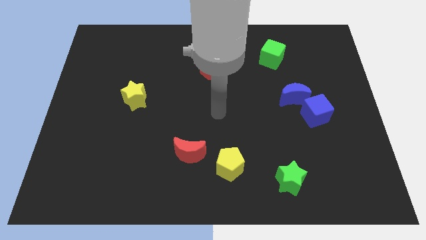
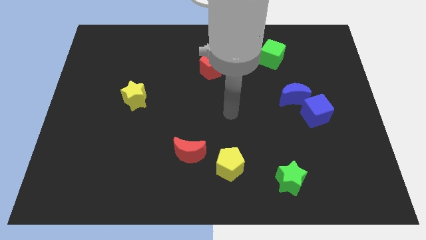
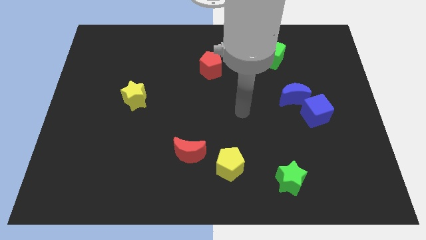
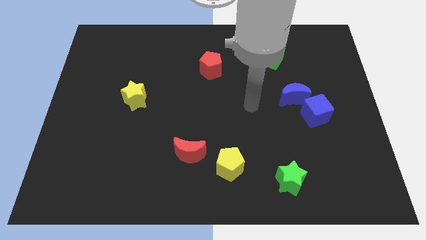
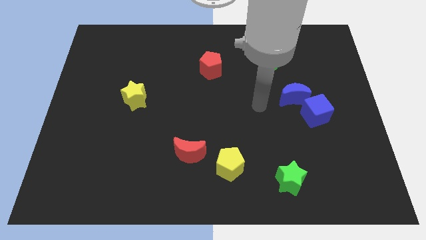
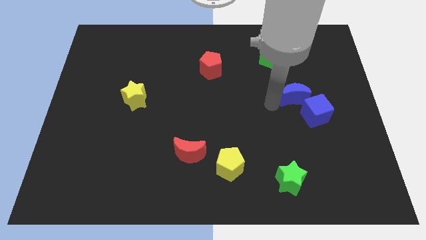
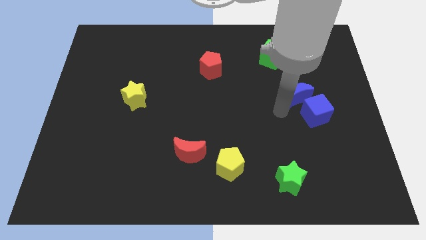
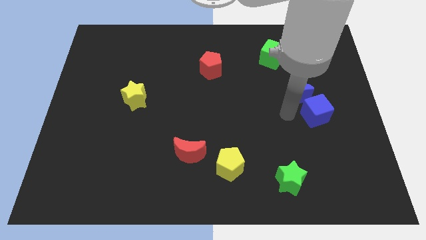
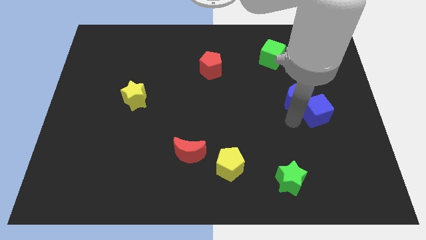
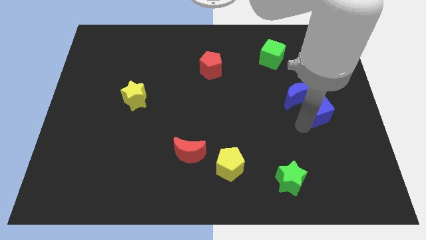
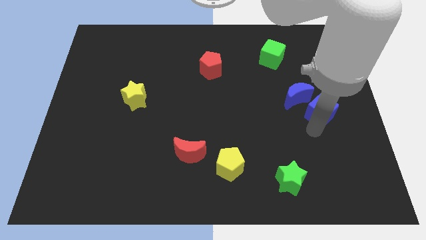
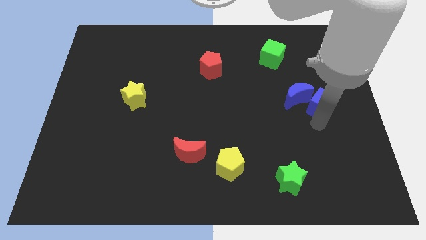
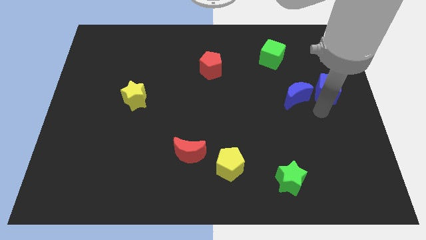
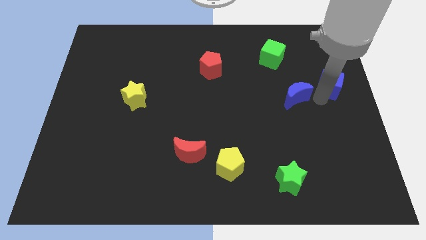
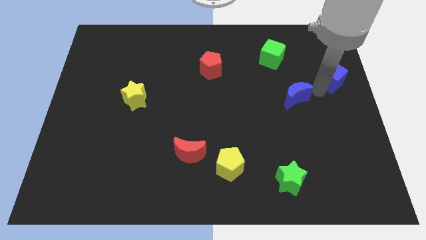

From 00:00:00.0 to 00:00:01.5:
move the blue moon away from the blue cube

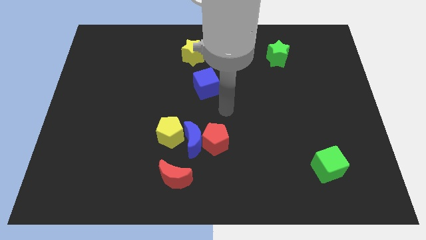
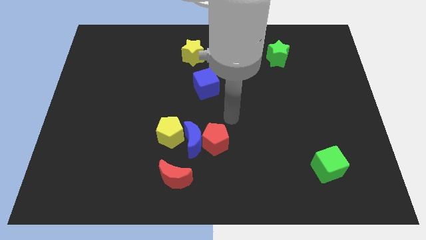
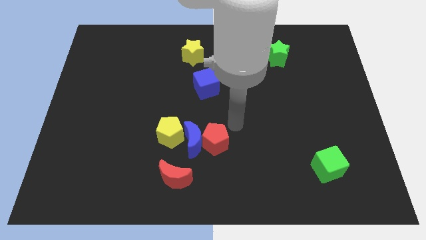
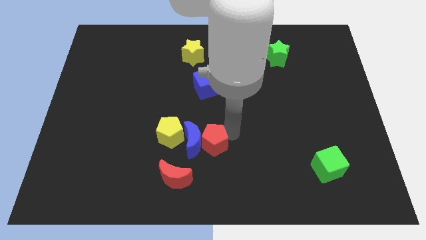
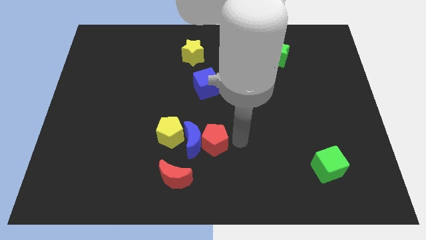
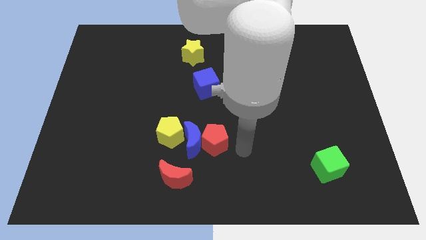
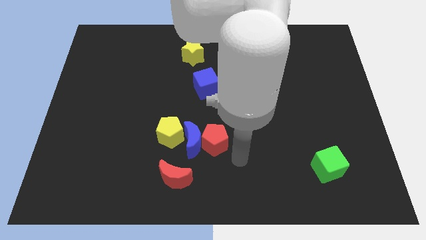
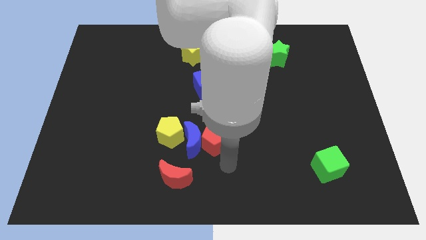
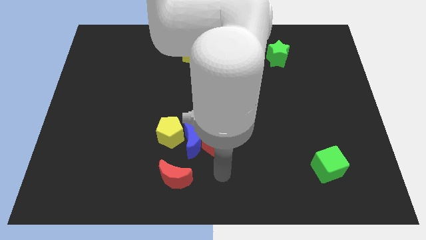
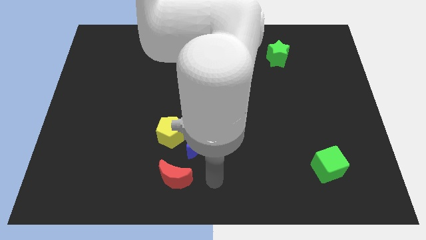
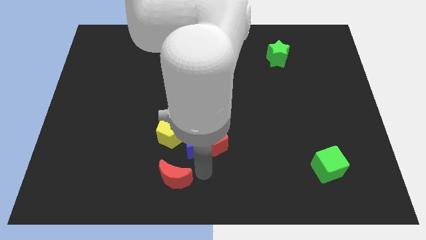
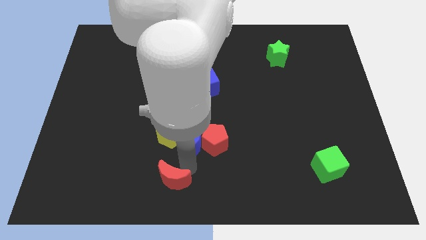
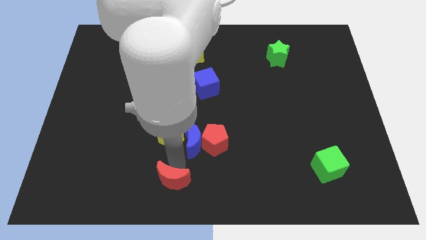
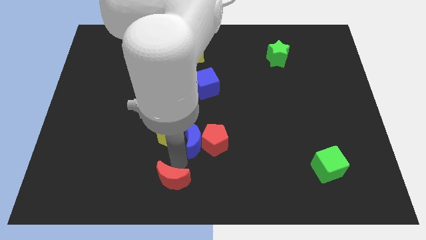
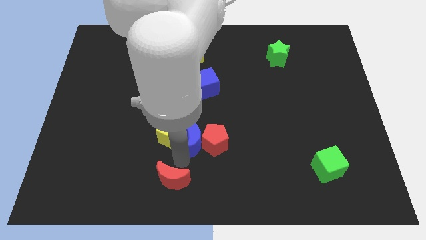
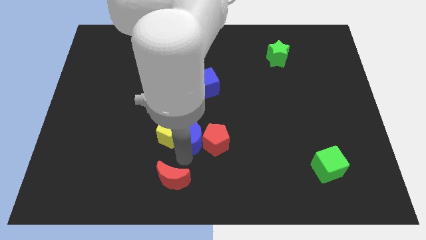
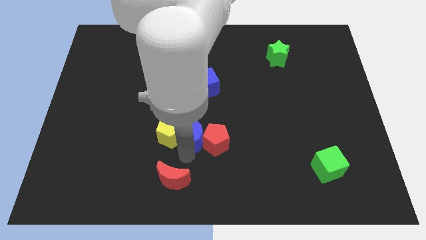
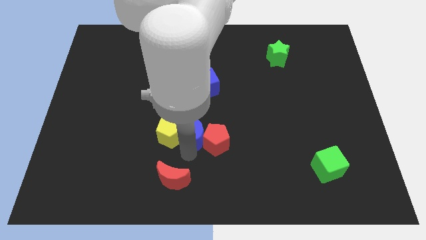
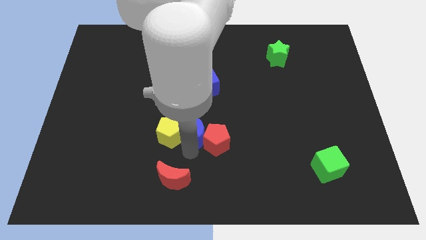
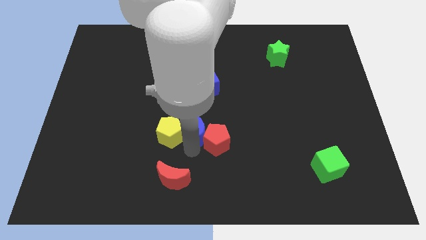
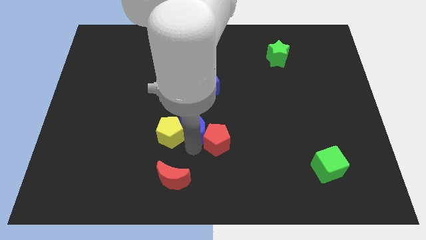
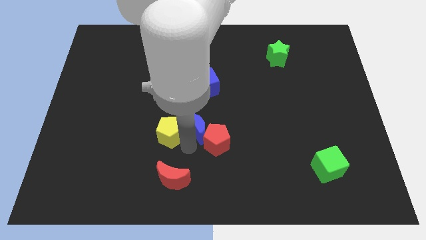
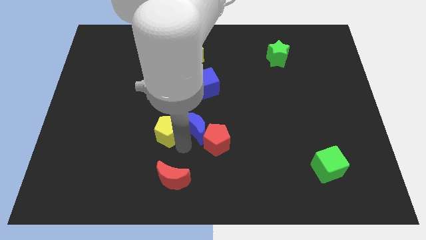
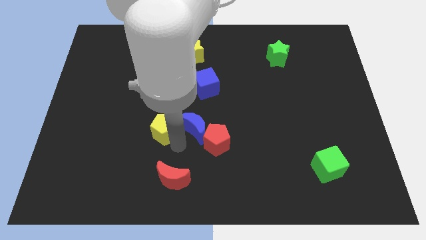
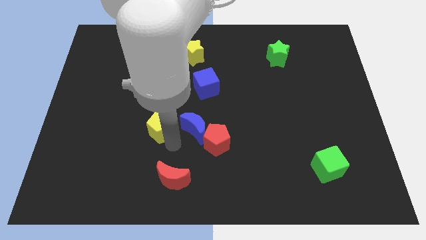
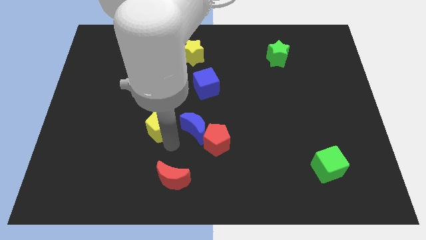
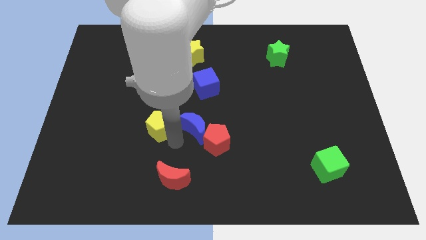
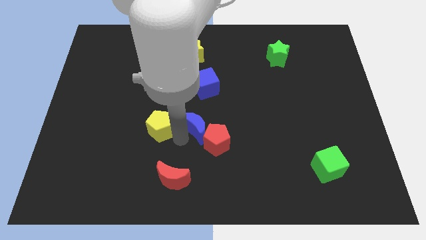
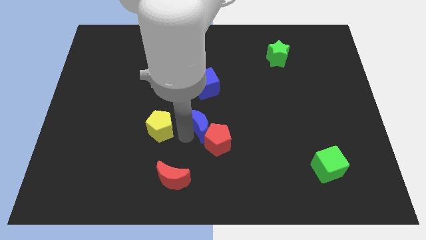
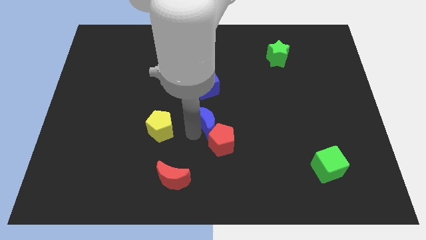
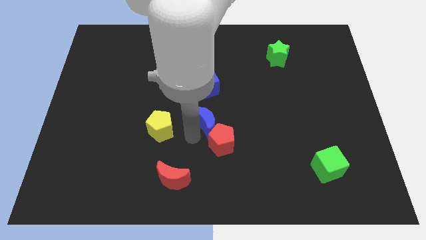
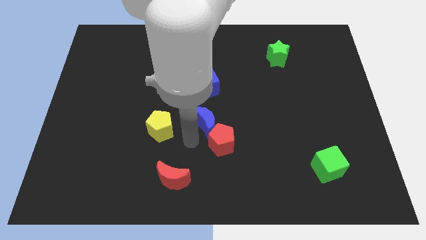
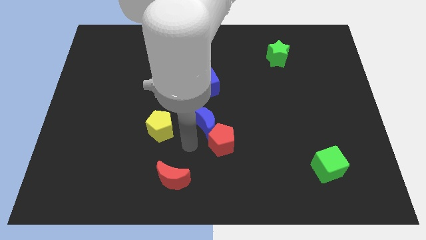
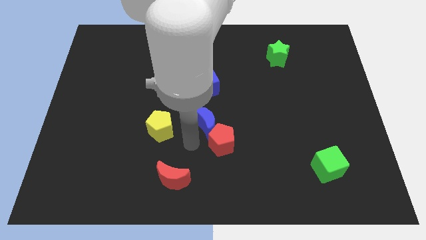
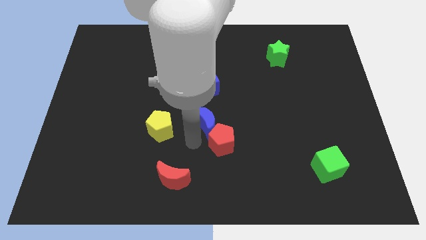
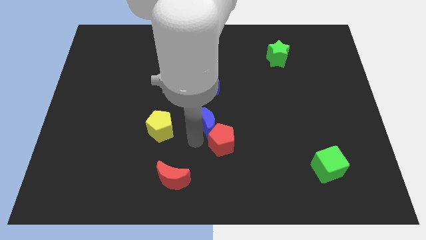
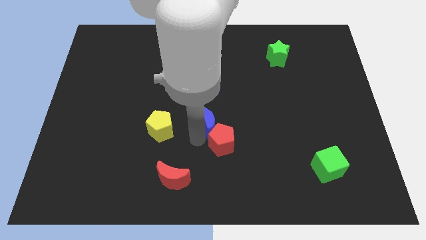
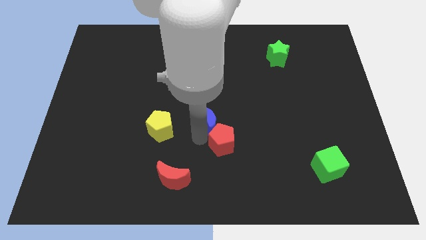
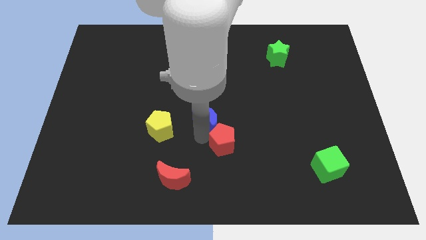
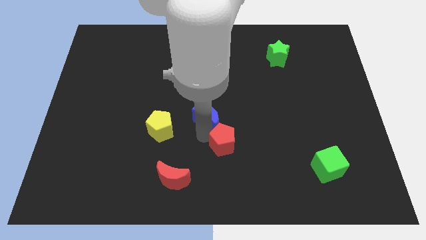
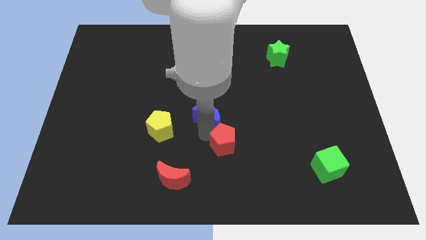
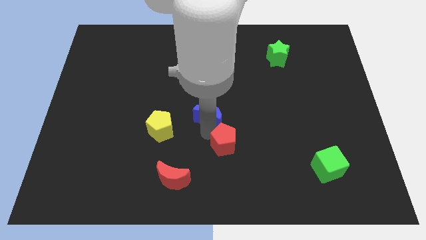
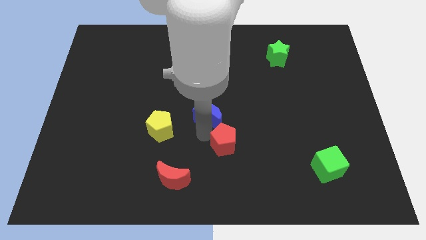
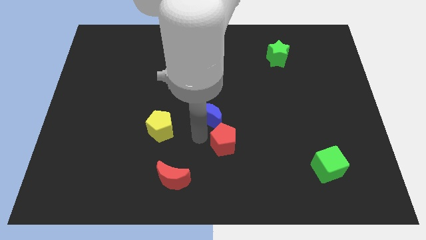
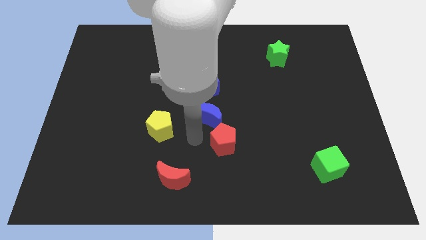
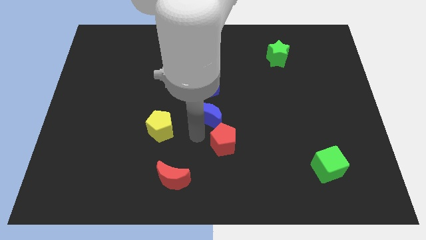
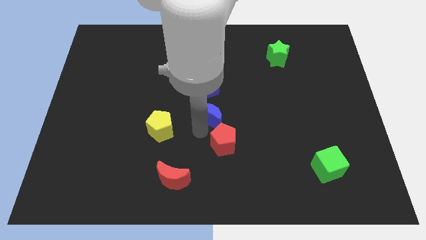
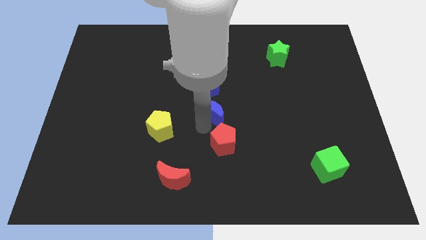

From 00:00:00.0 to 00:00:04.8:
move the blue moon away from the group

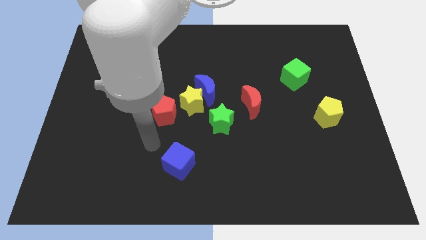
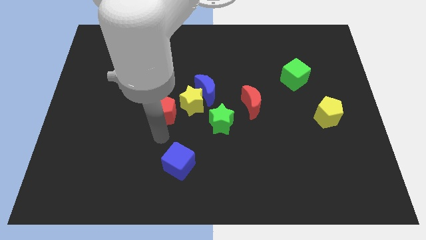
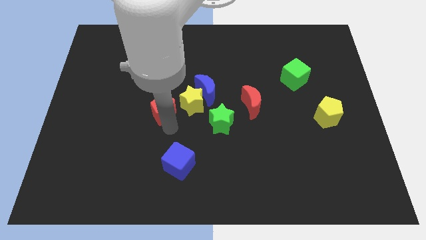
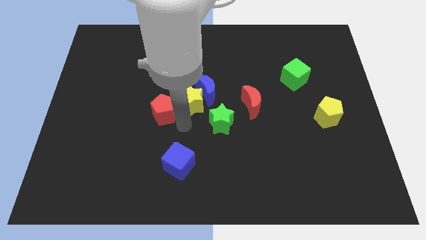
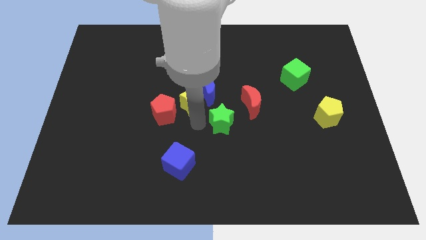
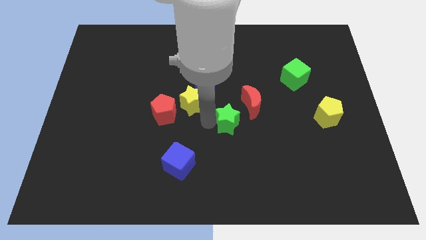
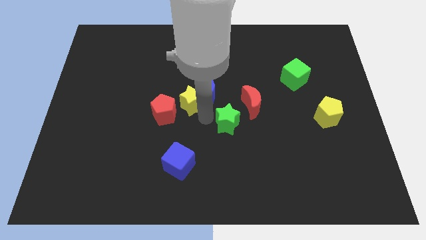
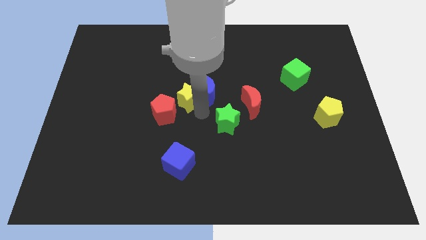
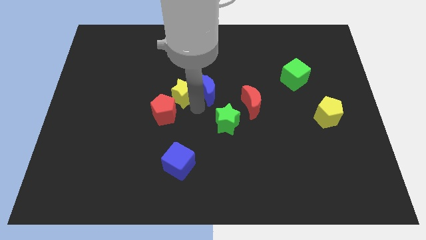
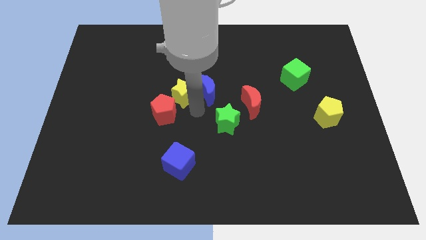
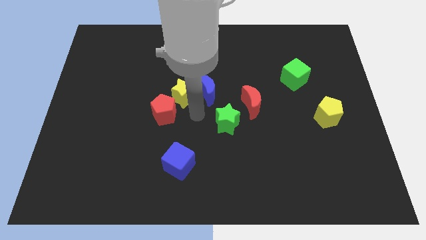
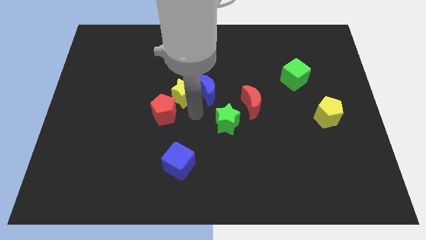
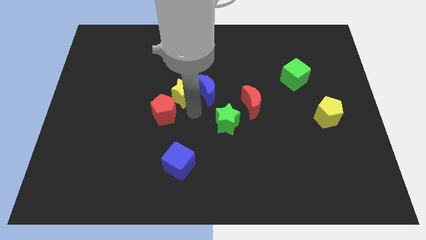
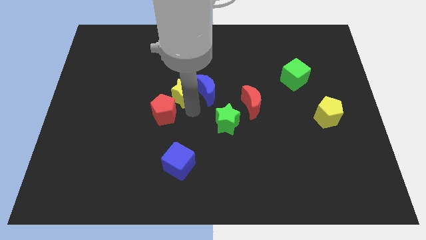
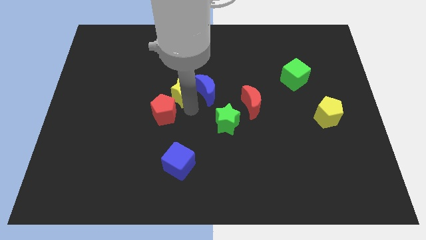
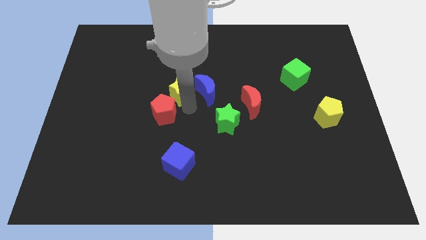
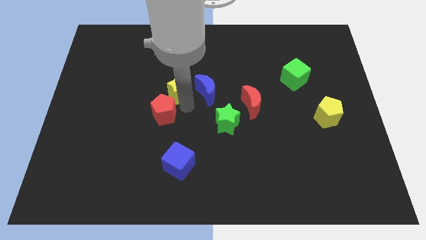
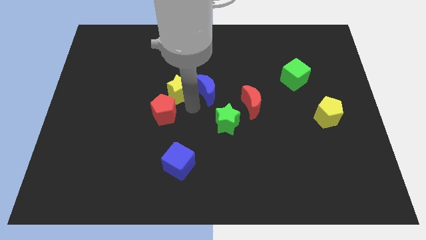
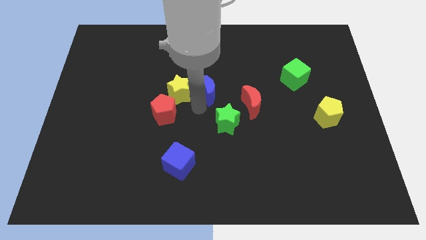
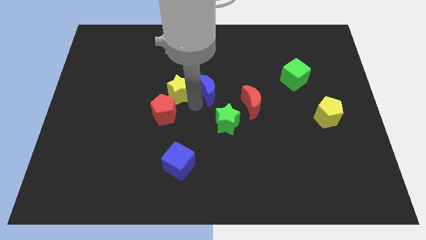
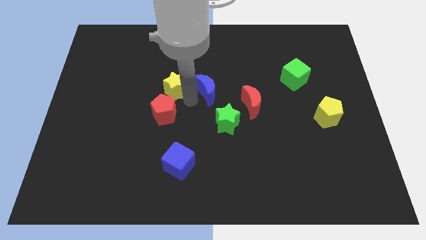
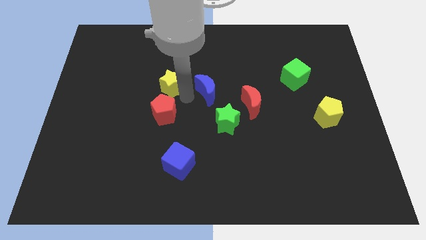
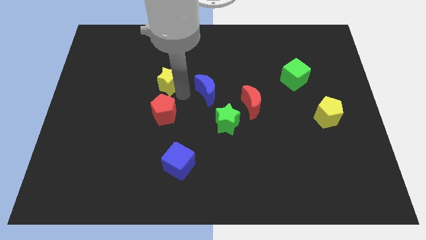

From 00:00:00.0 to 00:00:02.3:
separate the yellow star from the group

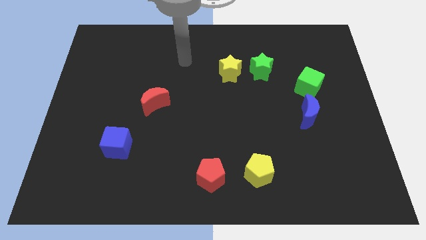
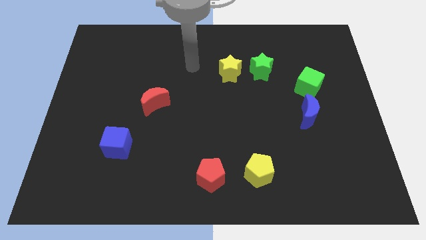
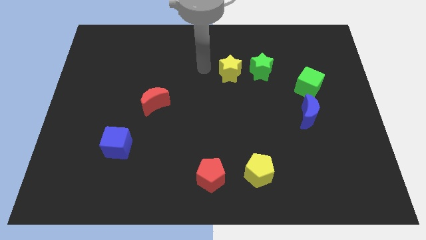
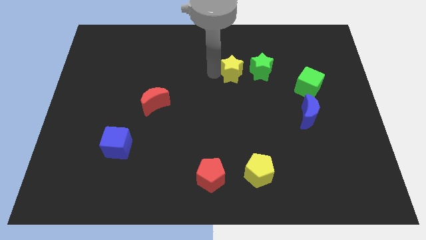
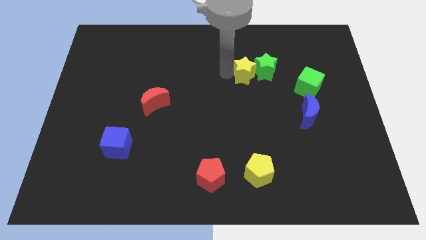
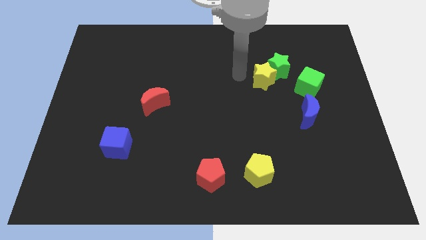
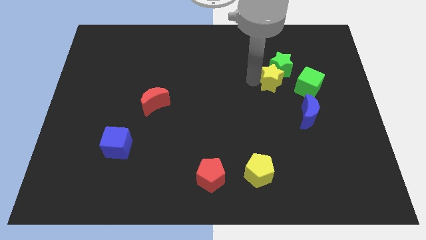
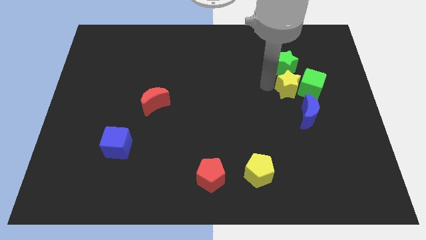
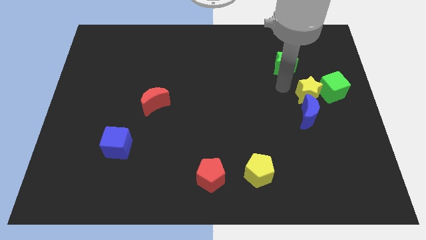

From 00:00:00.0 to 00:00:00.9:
move the green star away from the yellow star
